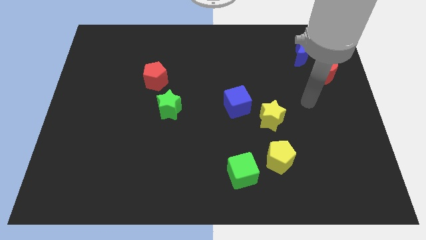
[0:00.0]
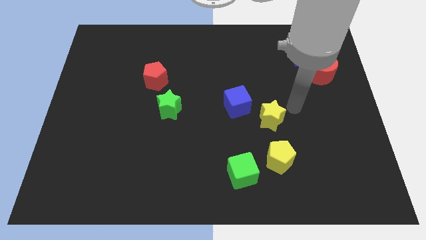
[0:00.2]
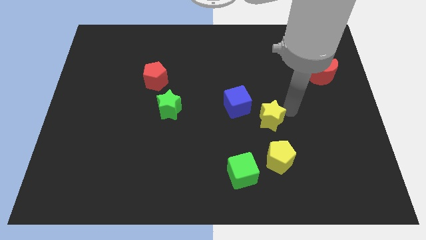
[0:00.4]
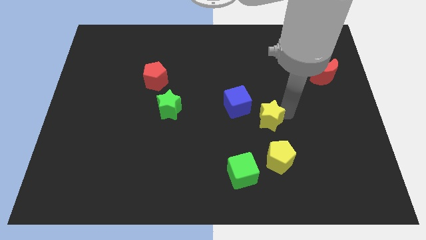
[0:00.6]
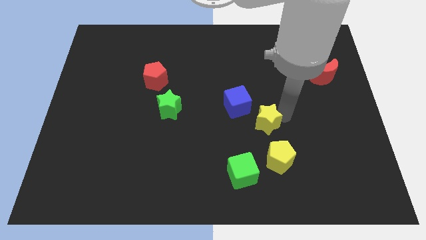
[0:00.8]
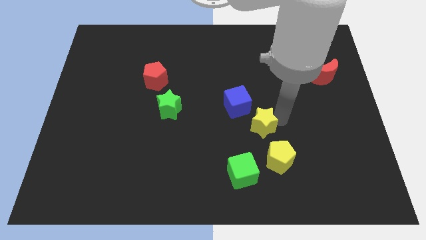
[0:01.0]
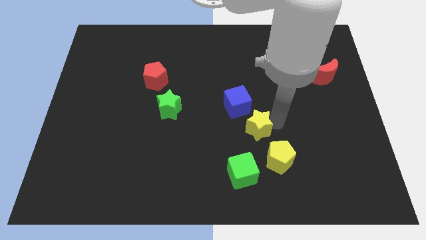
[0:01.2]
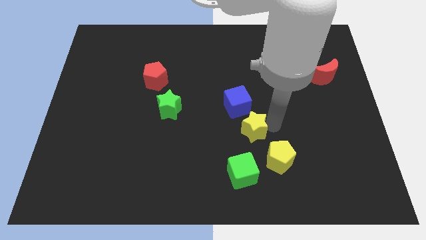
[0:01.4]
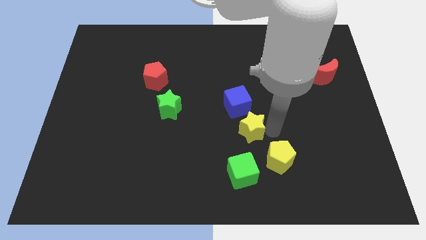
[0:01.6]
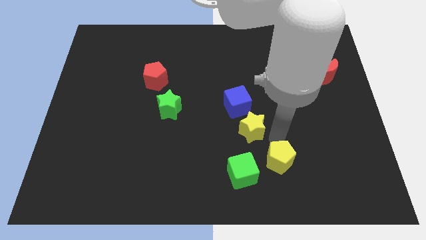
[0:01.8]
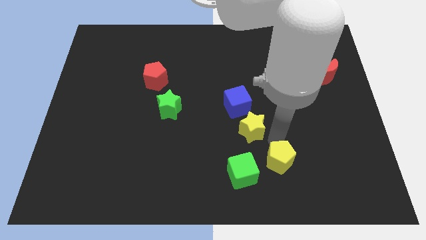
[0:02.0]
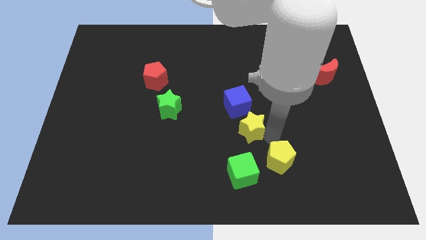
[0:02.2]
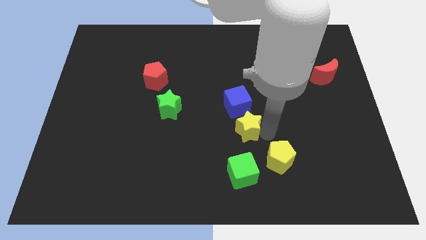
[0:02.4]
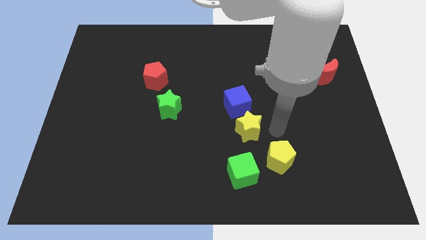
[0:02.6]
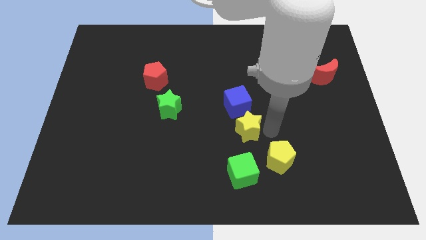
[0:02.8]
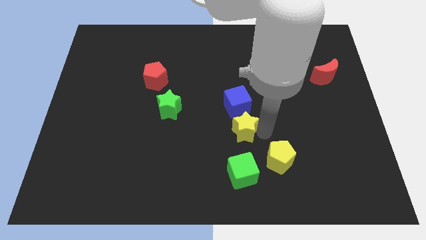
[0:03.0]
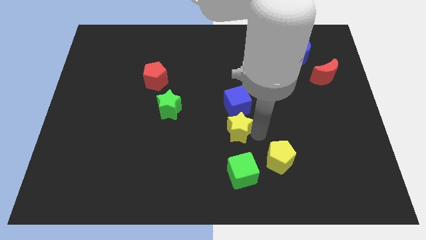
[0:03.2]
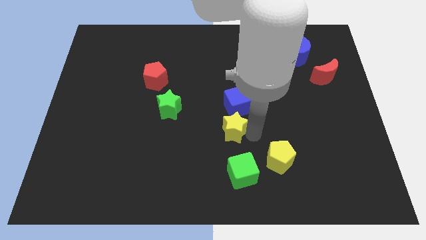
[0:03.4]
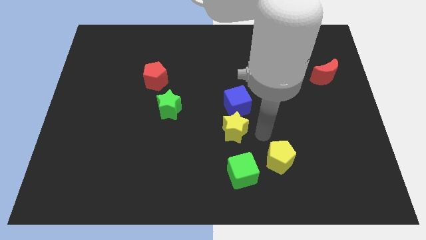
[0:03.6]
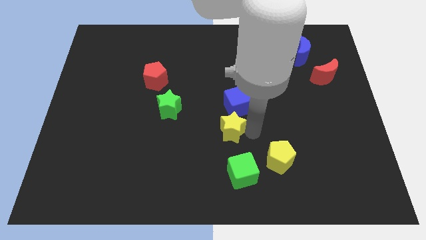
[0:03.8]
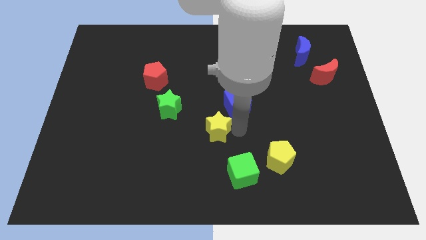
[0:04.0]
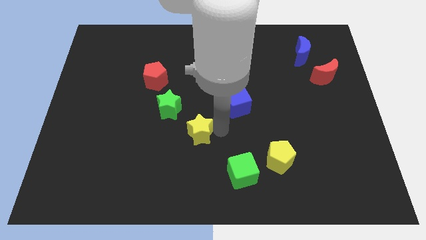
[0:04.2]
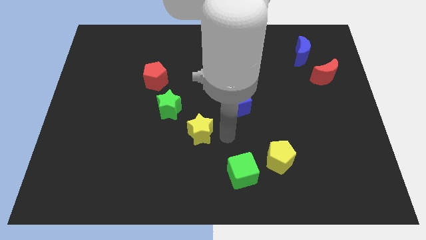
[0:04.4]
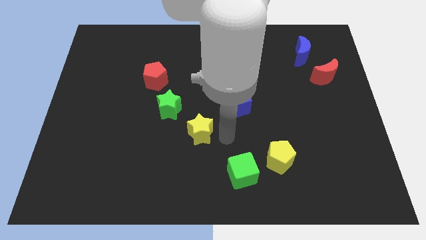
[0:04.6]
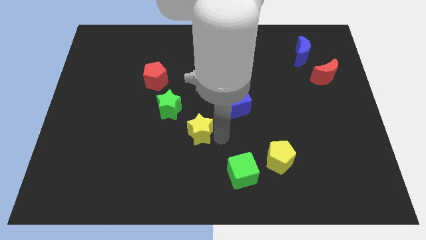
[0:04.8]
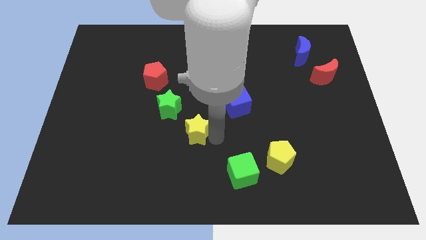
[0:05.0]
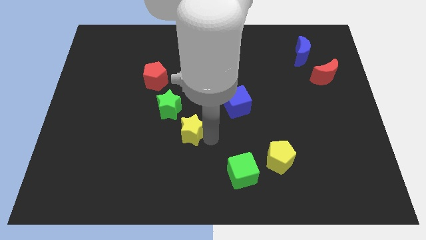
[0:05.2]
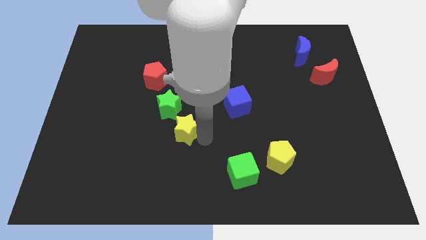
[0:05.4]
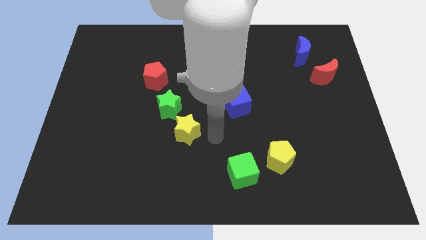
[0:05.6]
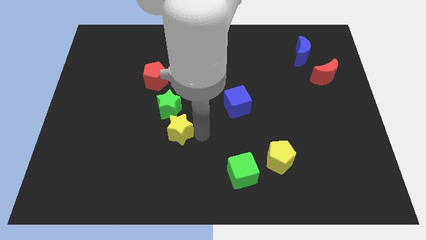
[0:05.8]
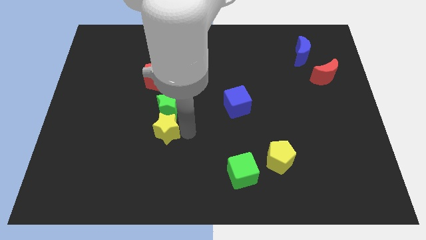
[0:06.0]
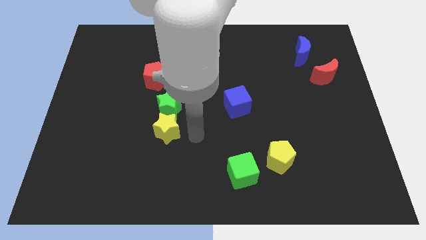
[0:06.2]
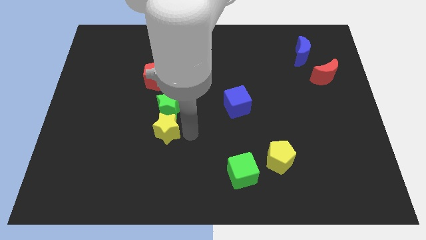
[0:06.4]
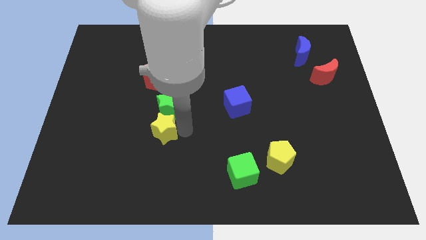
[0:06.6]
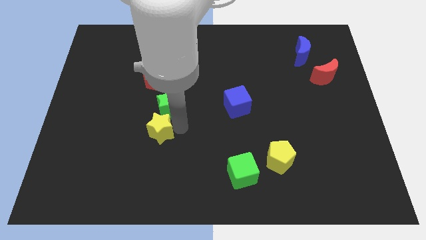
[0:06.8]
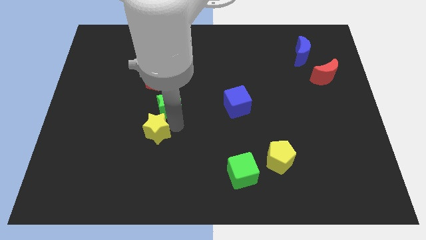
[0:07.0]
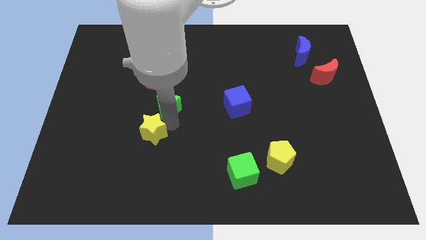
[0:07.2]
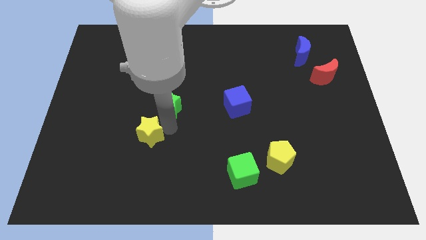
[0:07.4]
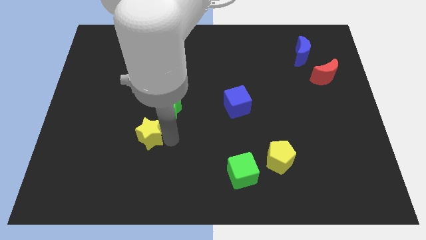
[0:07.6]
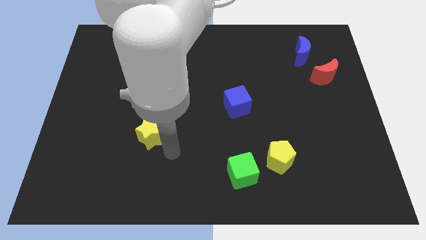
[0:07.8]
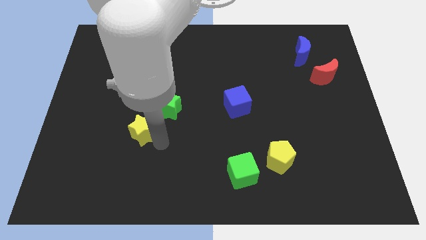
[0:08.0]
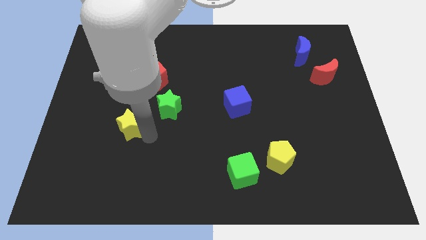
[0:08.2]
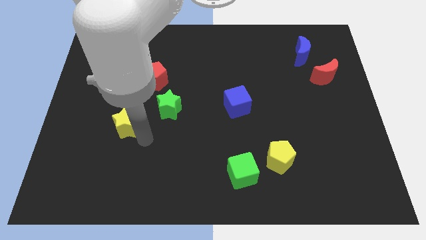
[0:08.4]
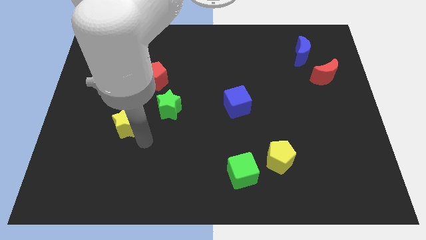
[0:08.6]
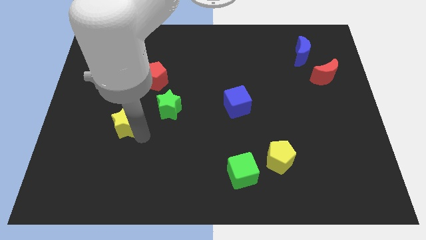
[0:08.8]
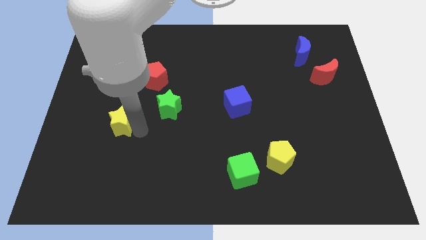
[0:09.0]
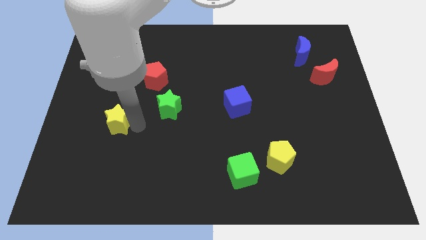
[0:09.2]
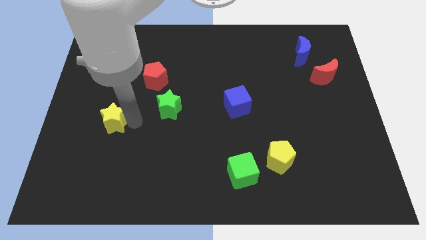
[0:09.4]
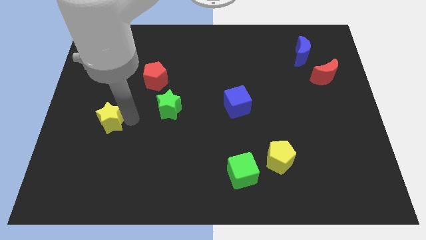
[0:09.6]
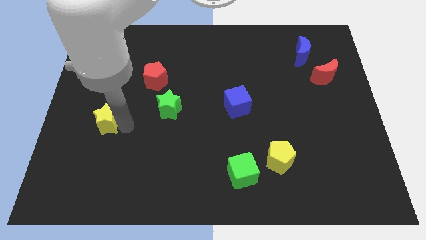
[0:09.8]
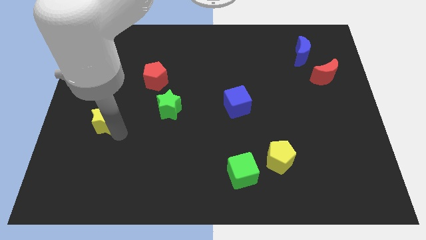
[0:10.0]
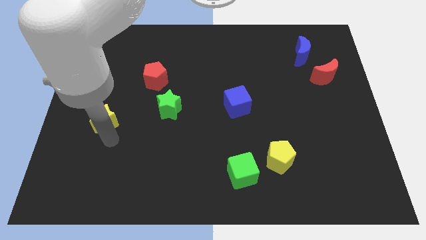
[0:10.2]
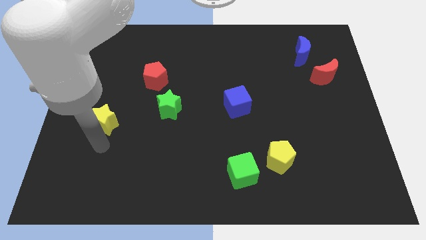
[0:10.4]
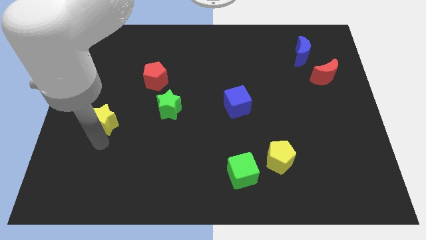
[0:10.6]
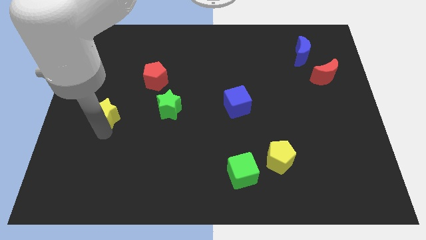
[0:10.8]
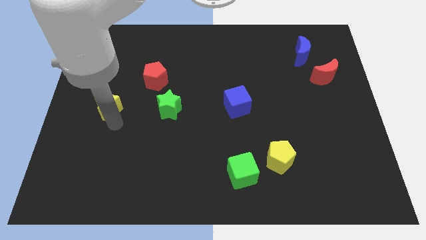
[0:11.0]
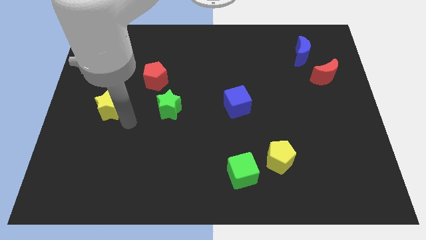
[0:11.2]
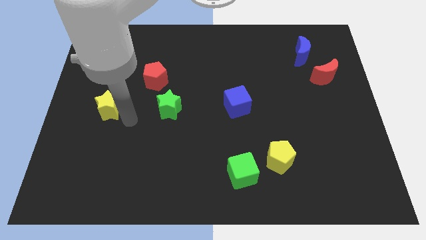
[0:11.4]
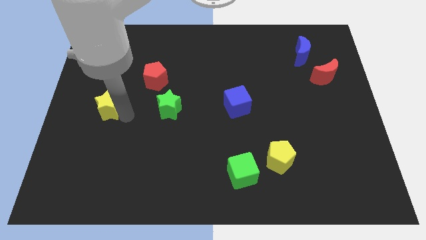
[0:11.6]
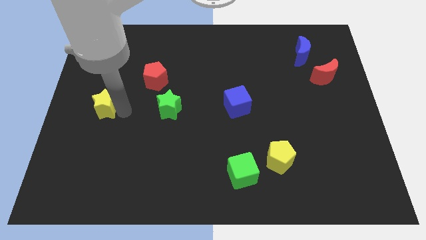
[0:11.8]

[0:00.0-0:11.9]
put the yellow star to the left side

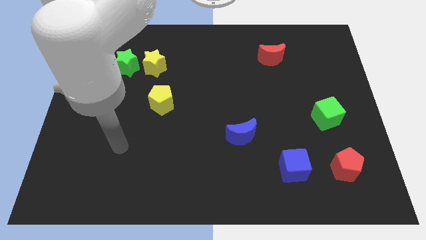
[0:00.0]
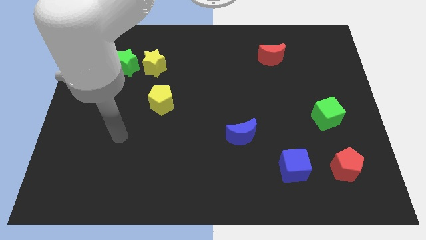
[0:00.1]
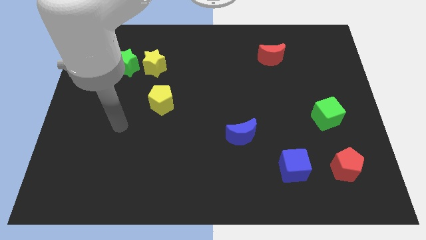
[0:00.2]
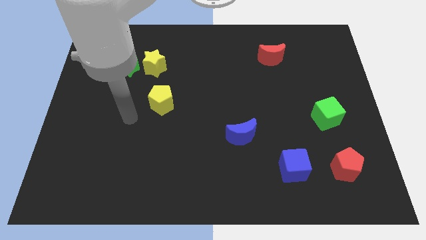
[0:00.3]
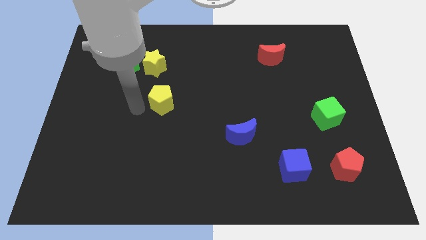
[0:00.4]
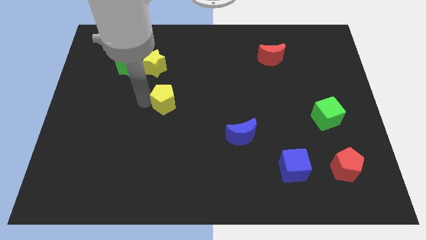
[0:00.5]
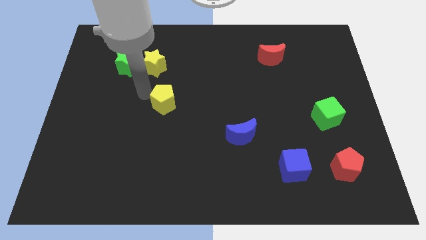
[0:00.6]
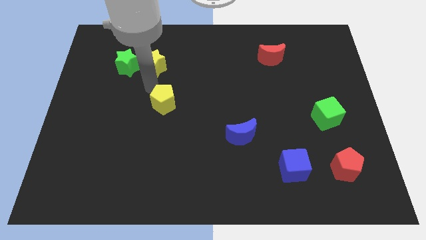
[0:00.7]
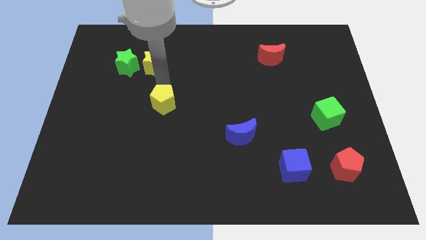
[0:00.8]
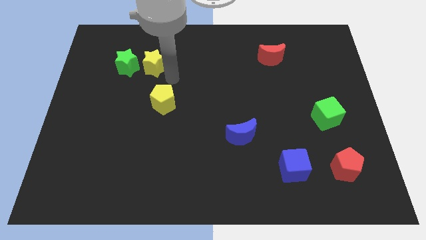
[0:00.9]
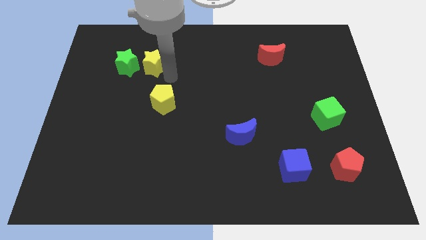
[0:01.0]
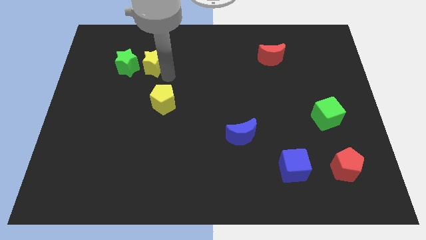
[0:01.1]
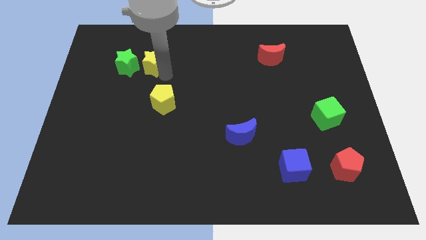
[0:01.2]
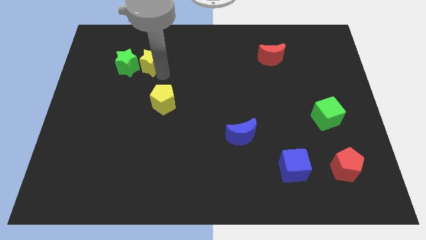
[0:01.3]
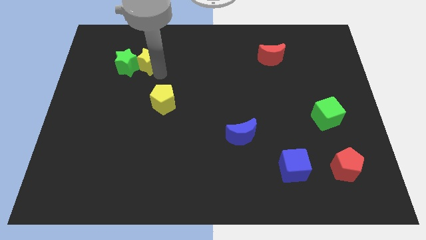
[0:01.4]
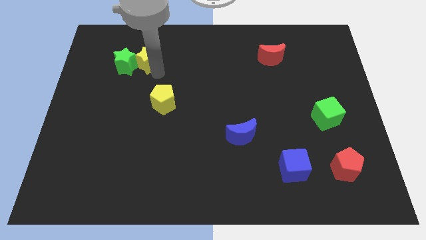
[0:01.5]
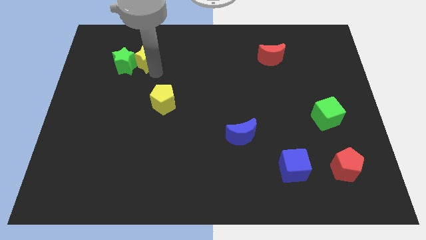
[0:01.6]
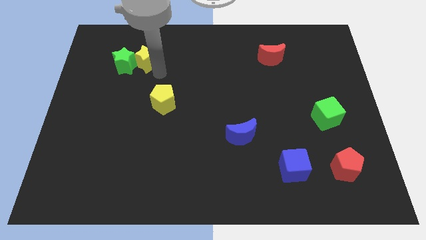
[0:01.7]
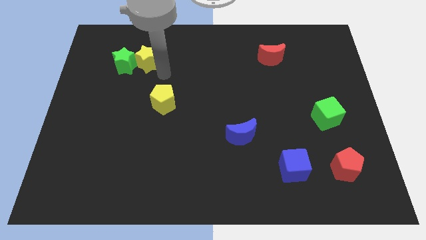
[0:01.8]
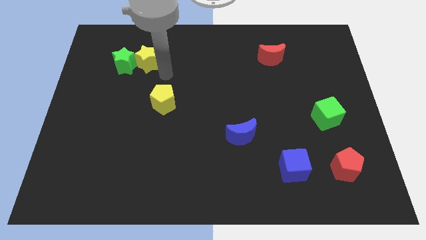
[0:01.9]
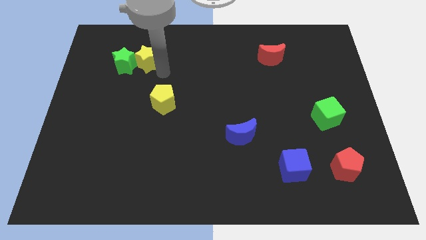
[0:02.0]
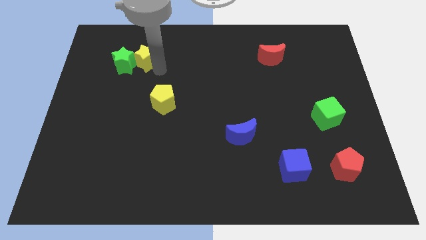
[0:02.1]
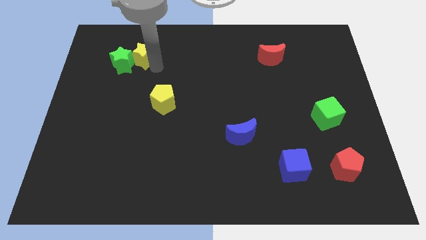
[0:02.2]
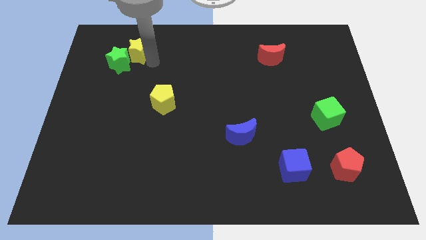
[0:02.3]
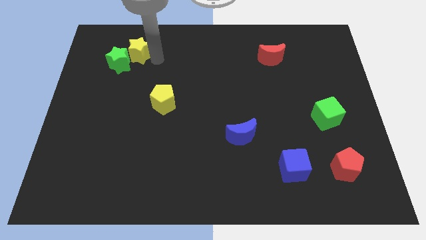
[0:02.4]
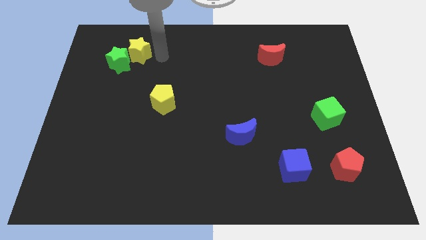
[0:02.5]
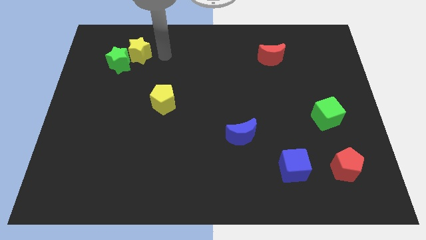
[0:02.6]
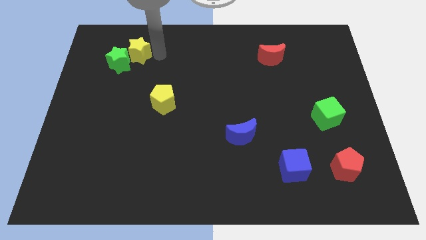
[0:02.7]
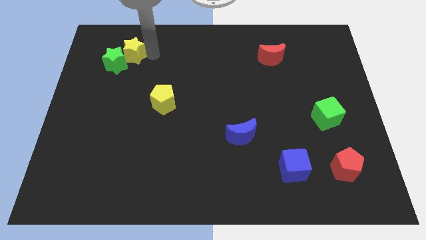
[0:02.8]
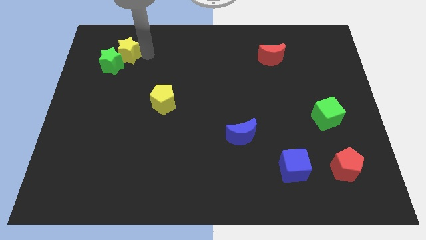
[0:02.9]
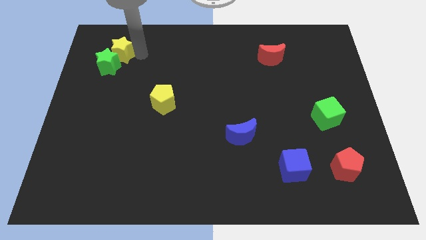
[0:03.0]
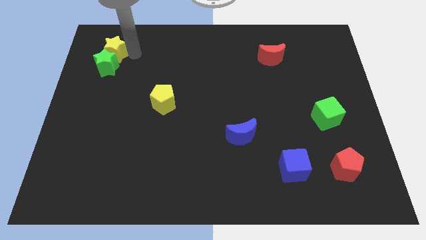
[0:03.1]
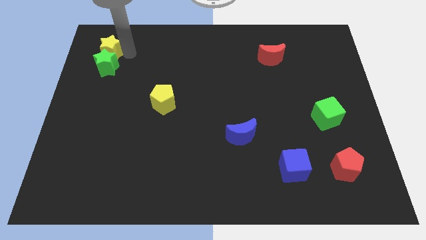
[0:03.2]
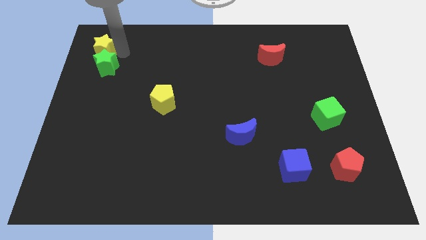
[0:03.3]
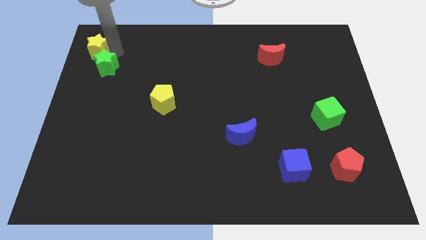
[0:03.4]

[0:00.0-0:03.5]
slide the yellow star to the top left
